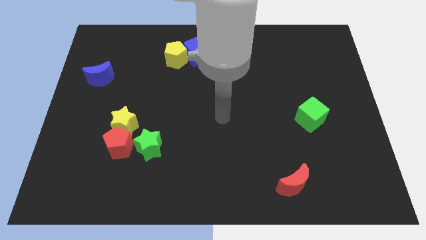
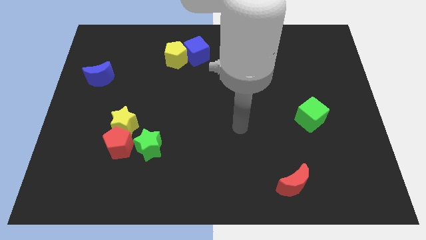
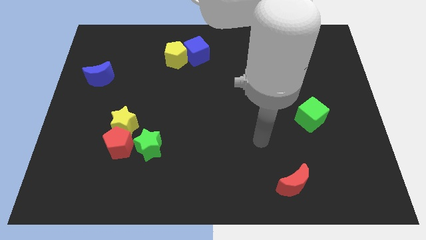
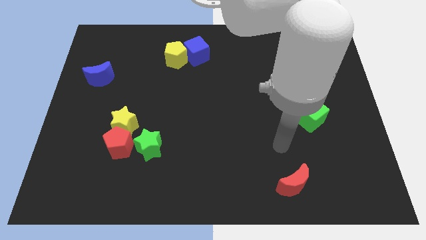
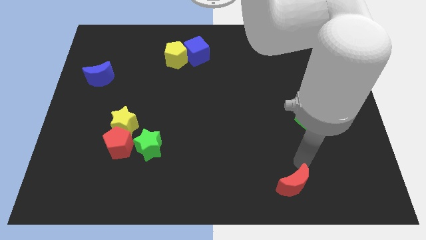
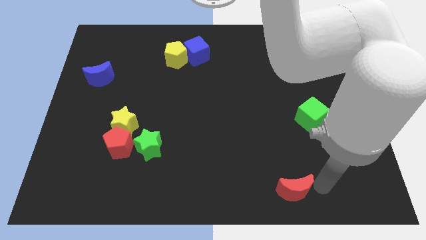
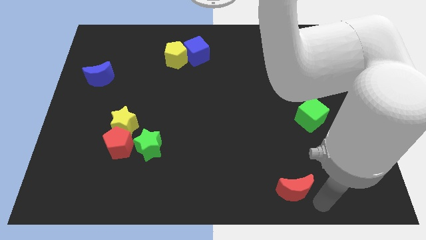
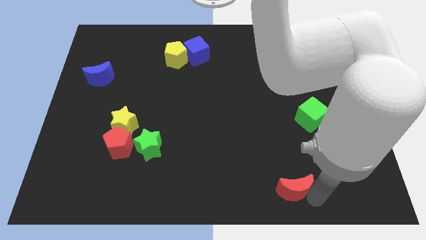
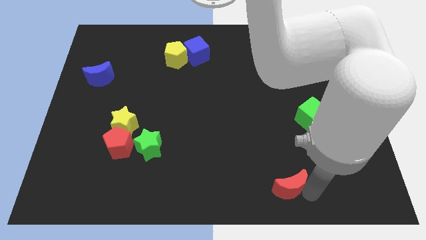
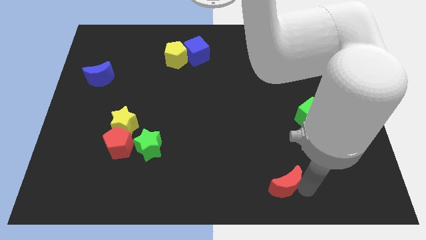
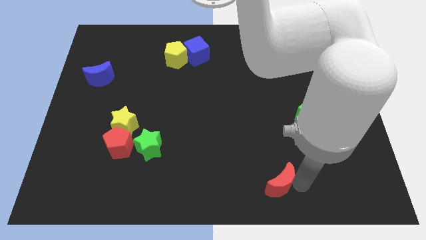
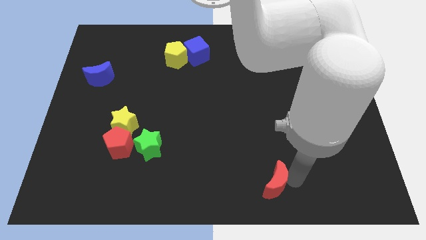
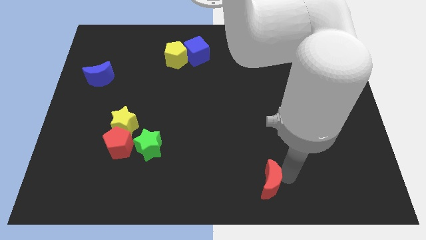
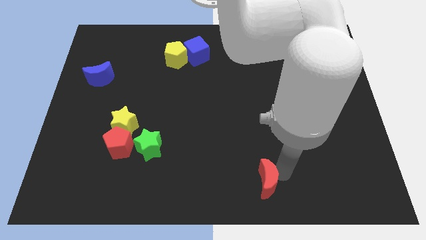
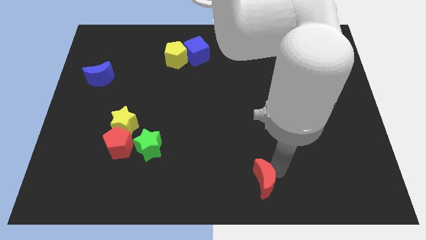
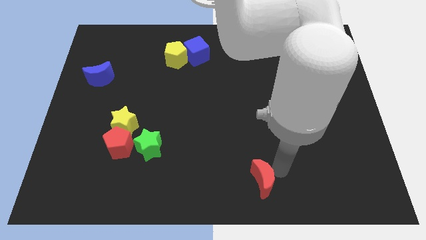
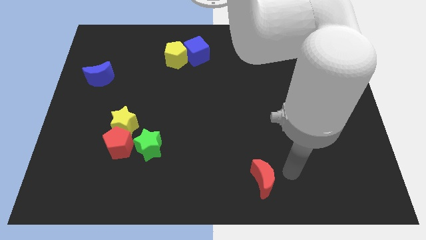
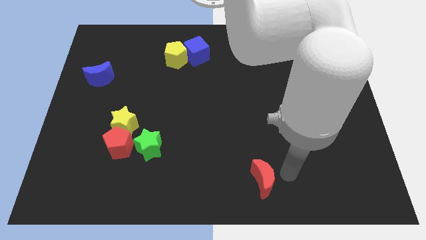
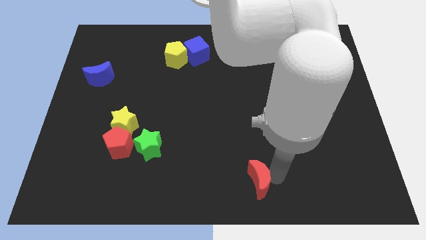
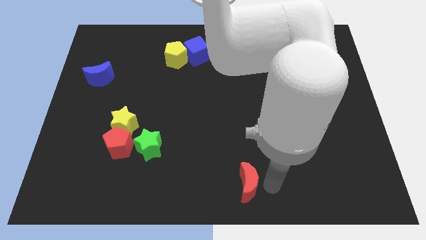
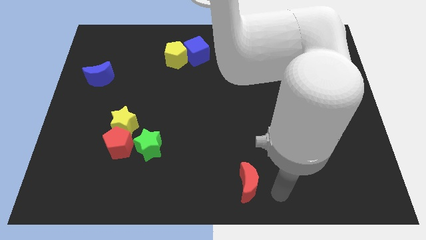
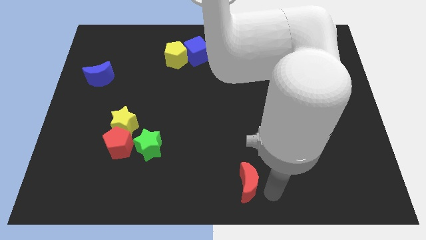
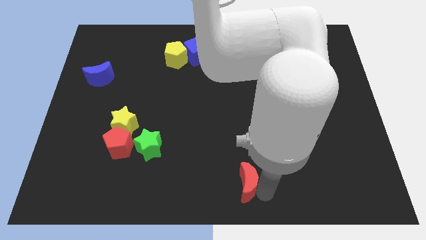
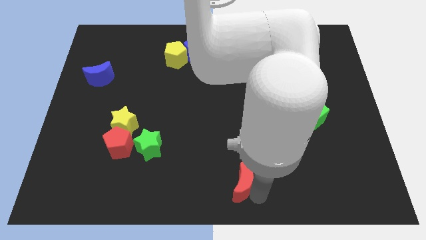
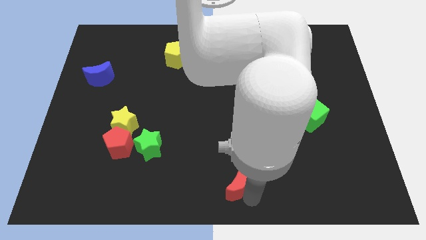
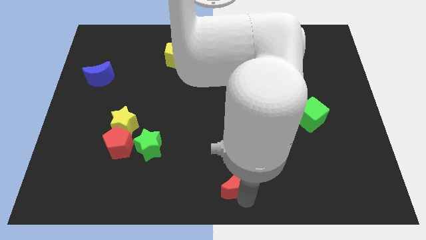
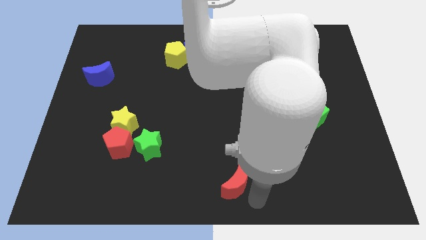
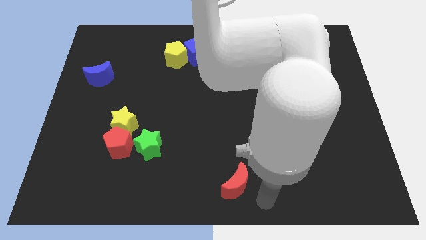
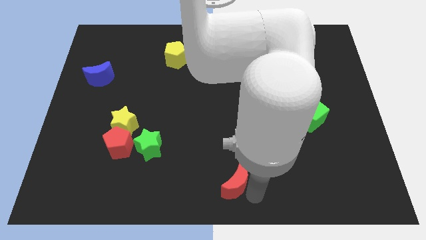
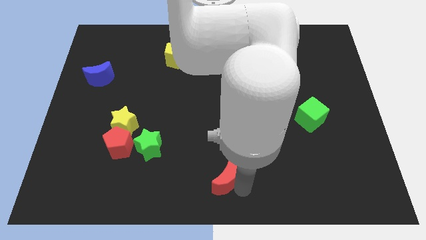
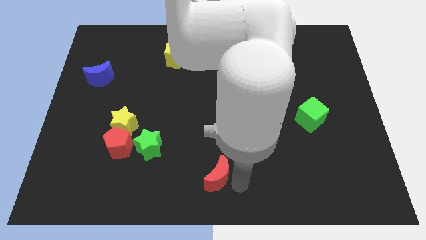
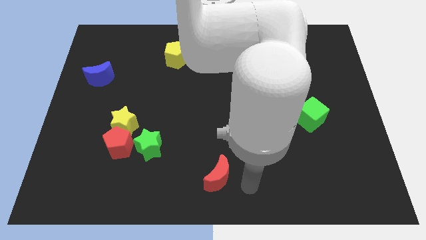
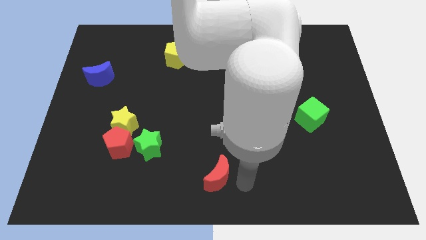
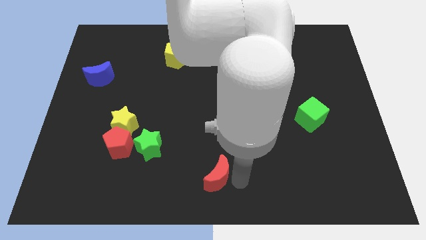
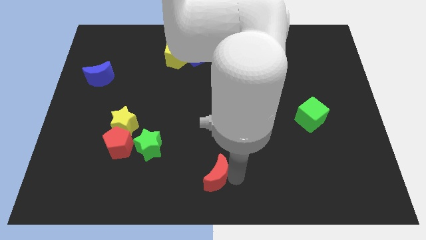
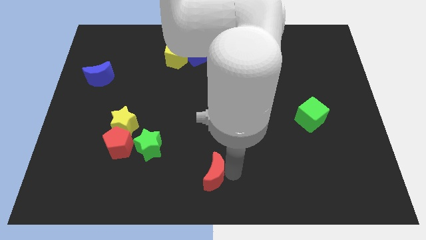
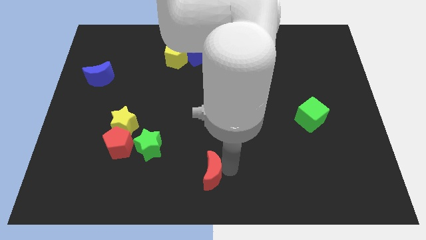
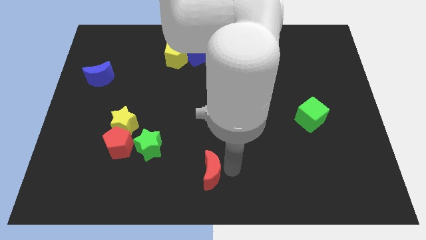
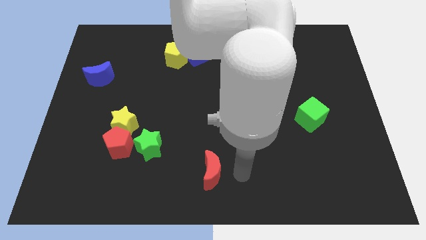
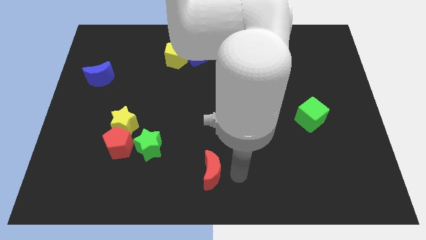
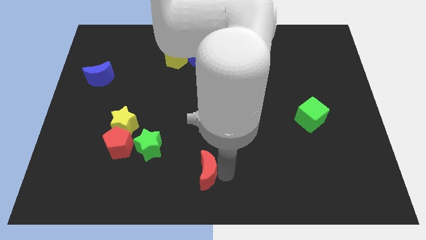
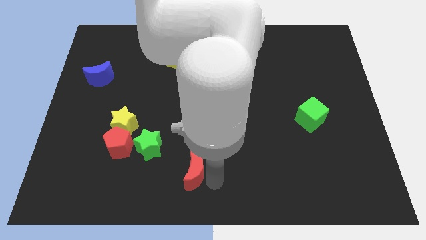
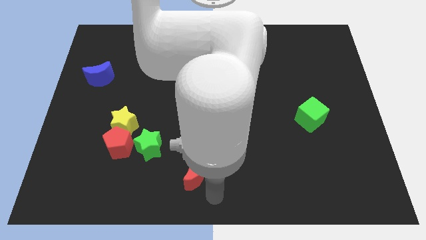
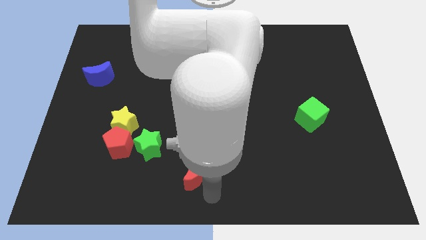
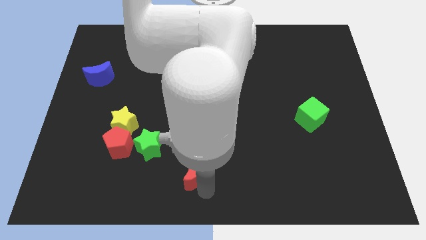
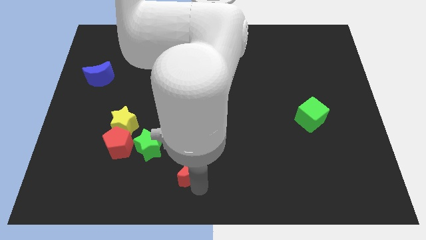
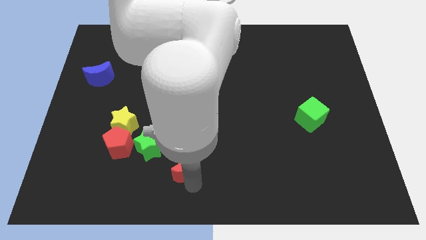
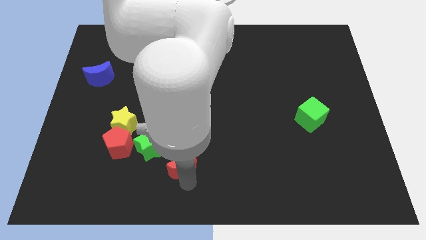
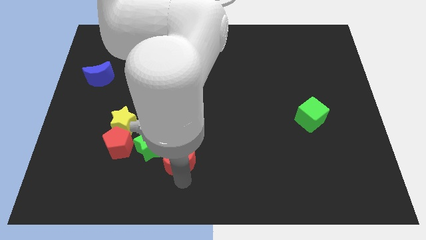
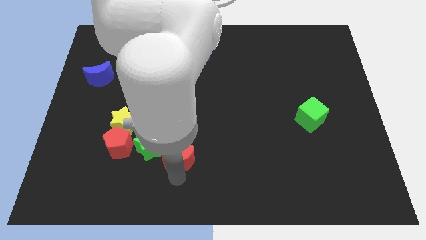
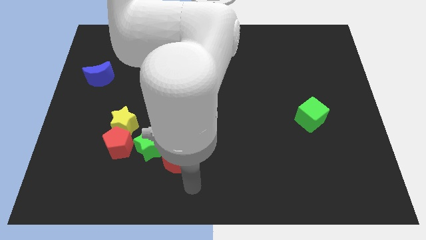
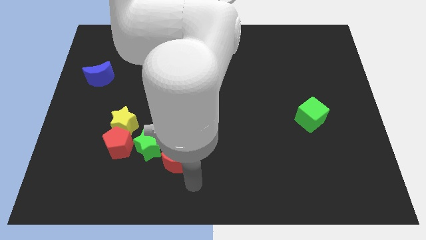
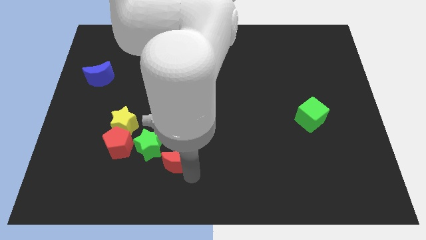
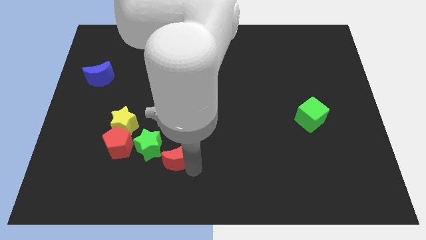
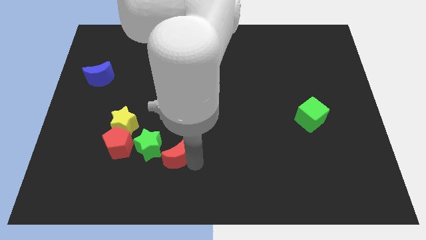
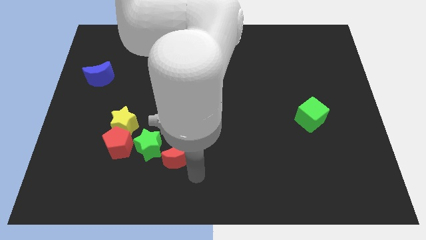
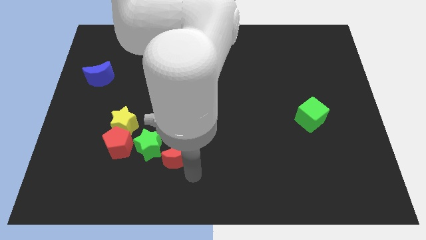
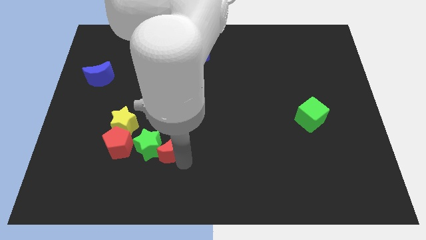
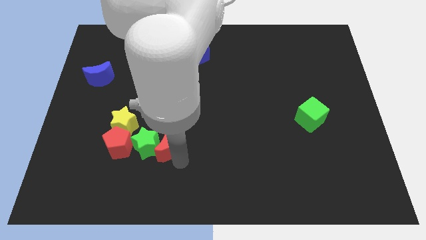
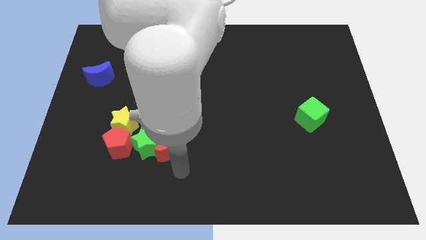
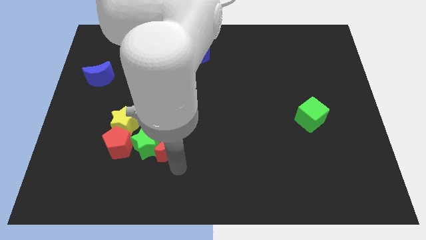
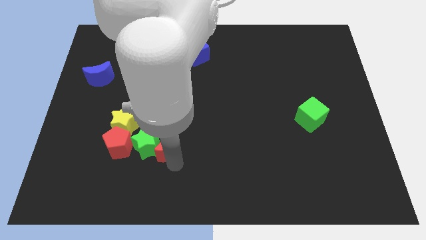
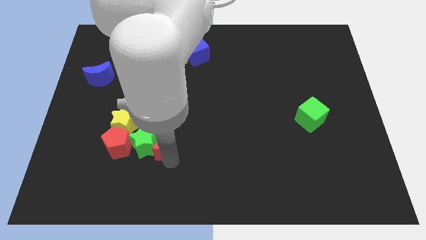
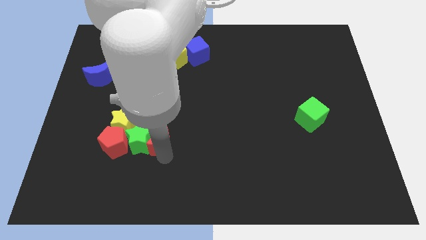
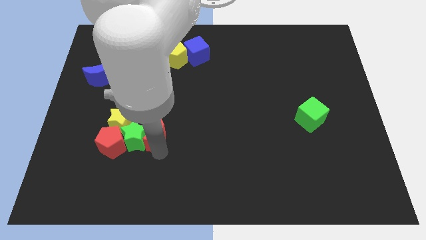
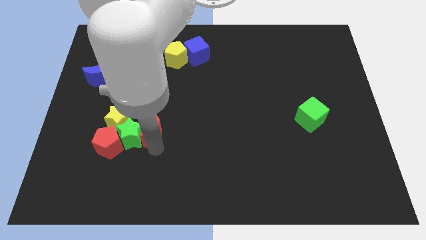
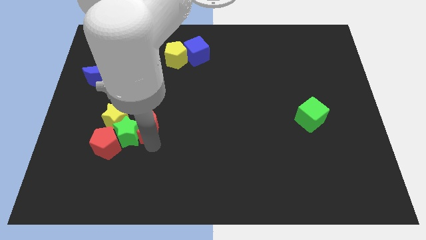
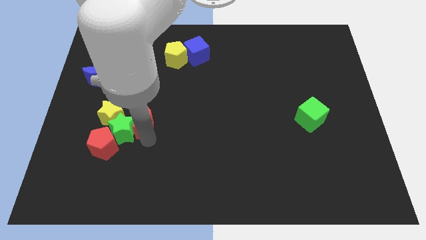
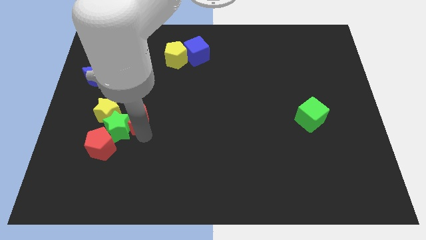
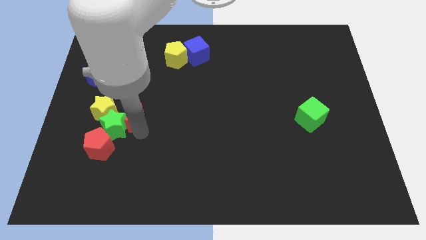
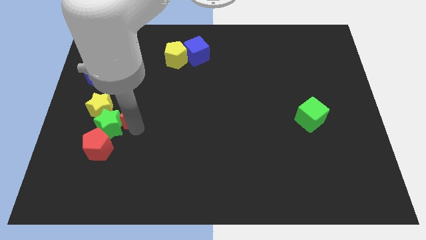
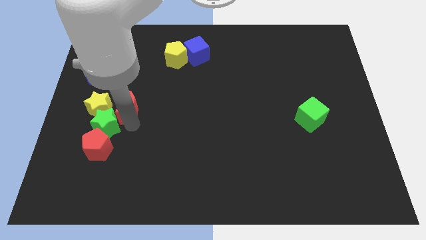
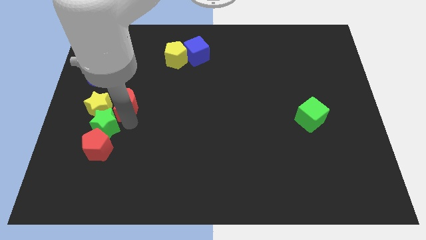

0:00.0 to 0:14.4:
slide the red moon to the bottom right side of the blue moon

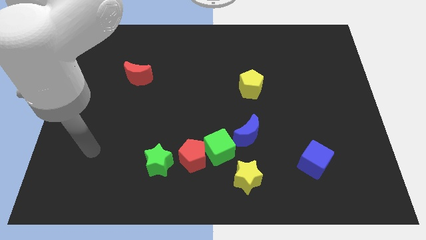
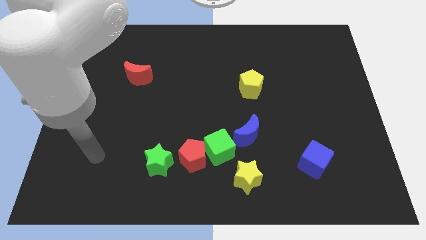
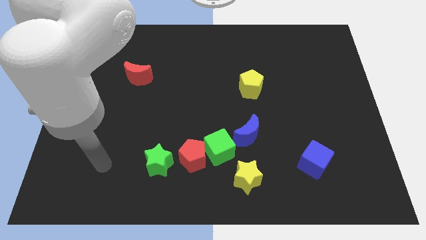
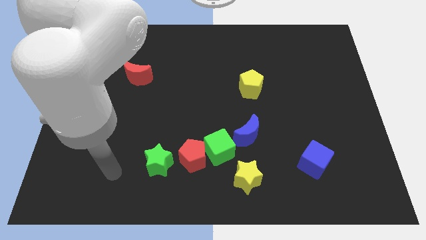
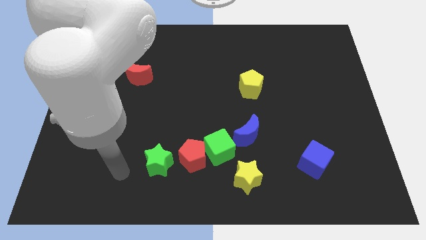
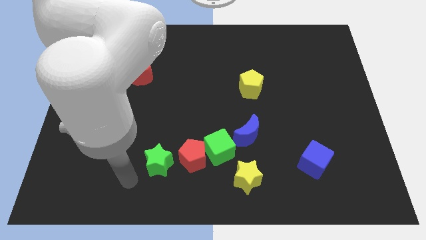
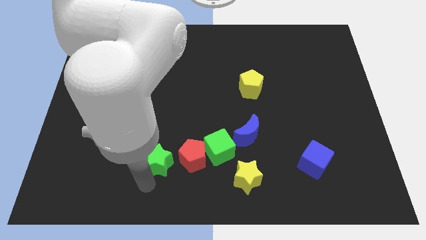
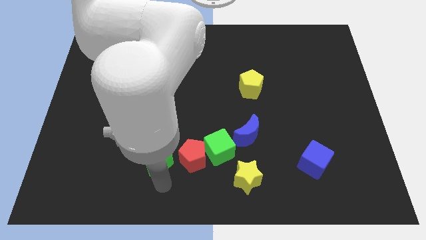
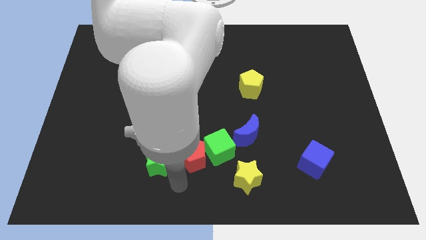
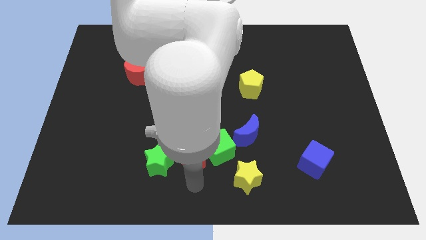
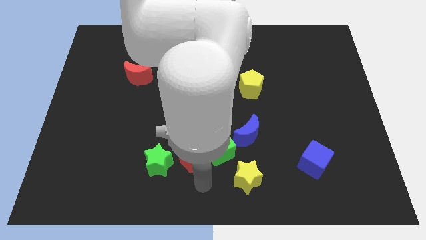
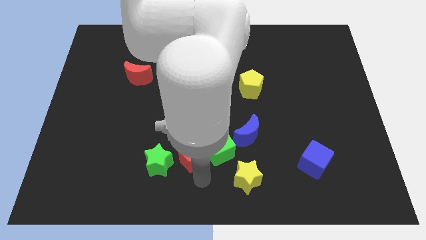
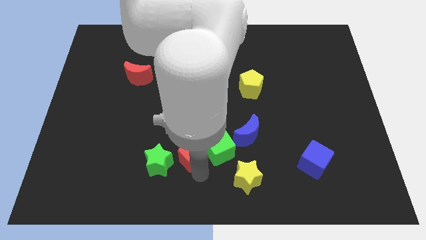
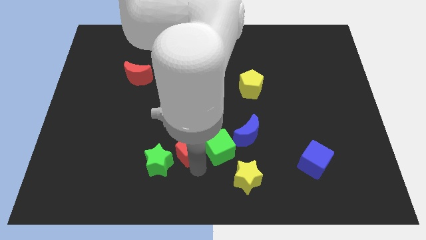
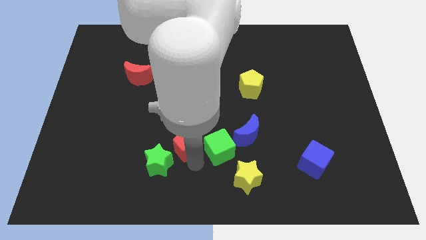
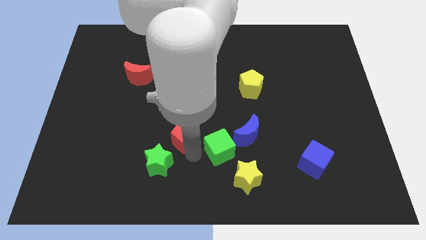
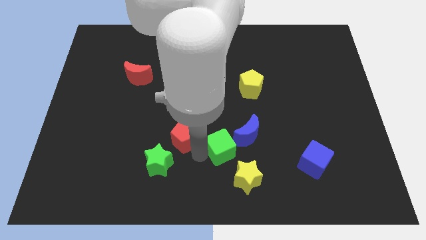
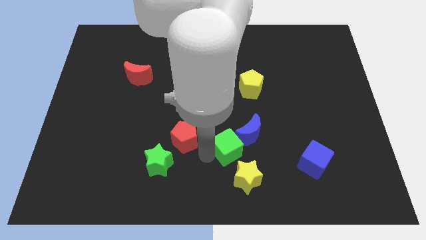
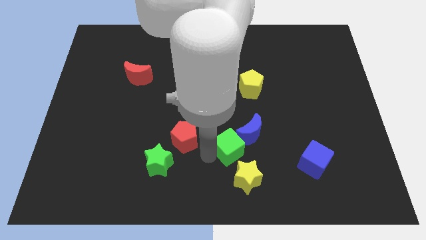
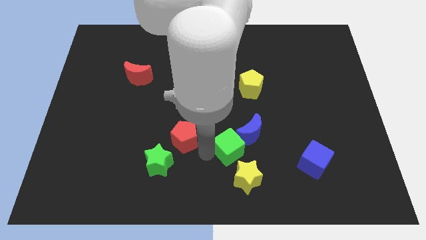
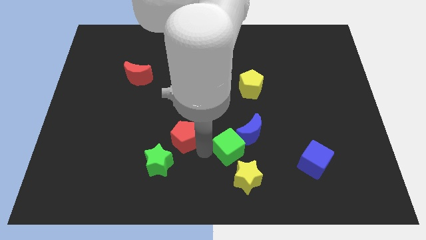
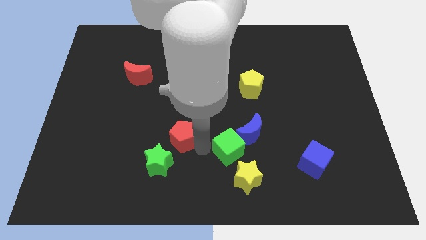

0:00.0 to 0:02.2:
move the red pentagon to the top side of the green star
